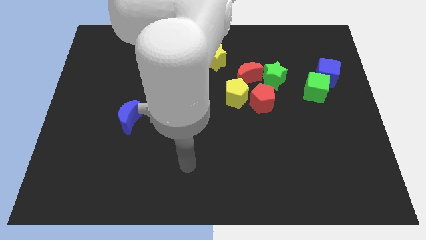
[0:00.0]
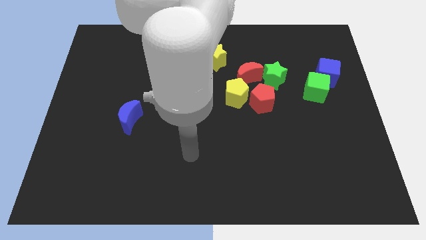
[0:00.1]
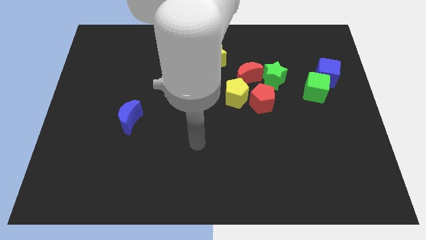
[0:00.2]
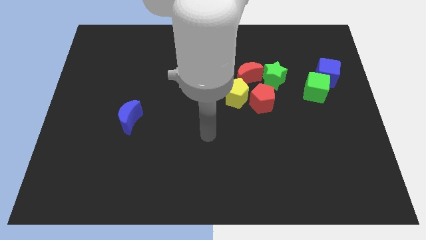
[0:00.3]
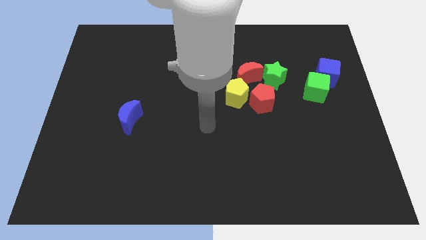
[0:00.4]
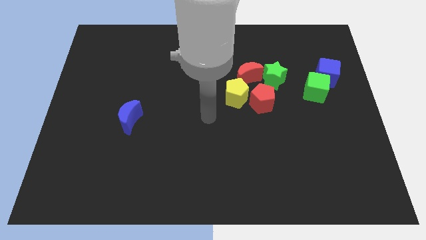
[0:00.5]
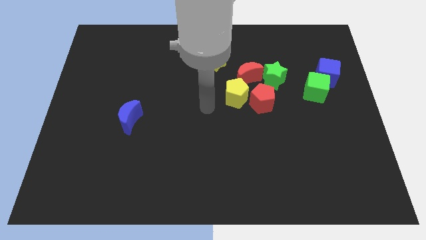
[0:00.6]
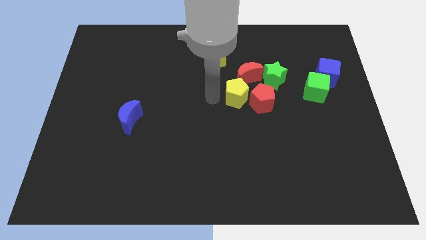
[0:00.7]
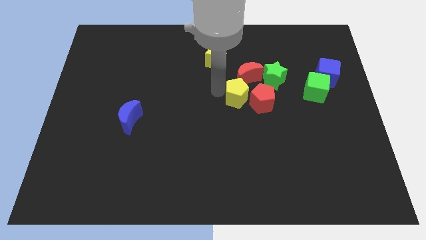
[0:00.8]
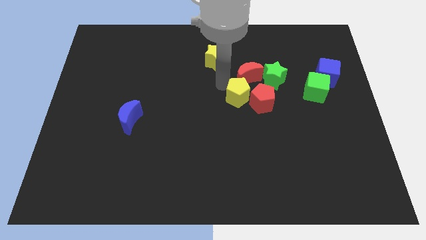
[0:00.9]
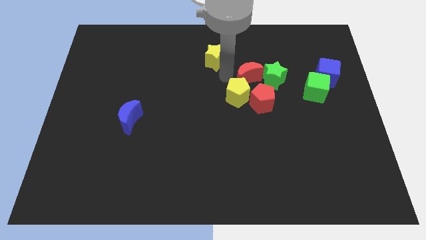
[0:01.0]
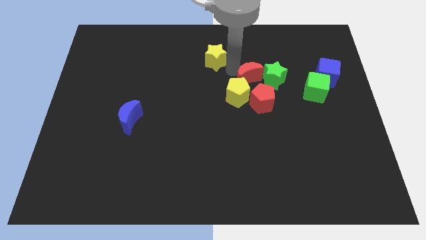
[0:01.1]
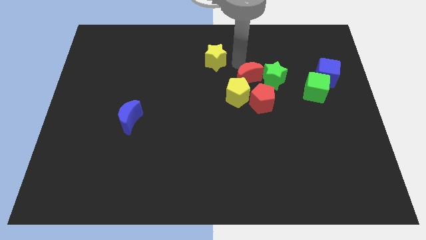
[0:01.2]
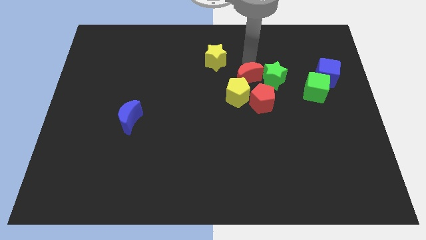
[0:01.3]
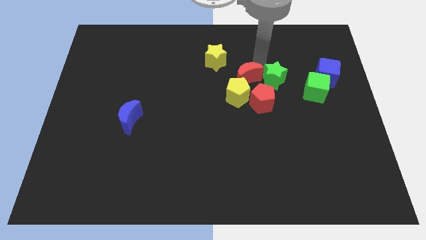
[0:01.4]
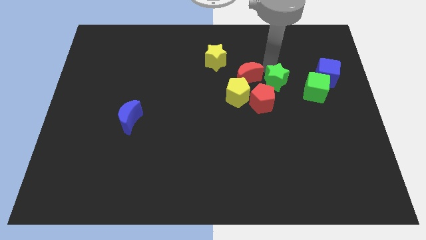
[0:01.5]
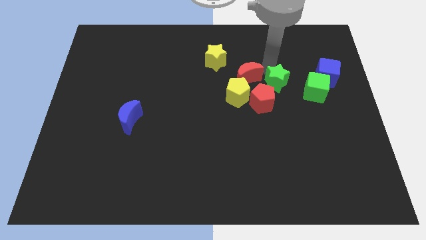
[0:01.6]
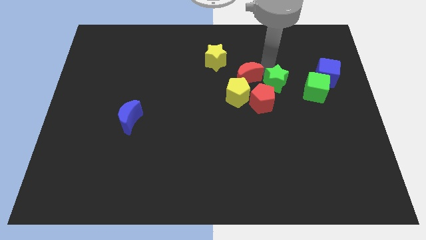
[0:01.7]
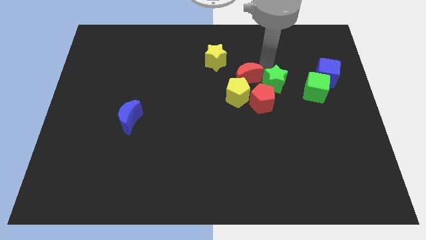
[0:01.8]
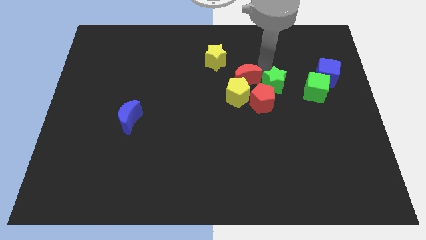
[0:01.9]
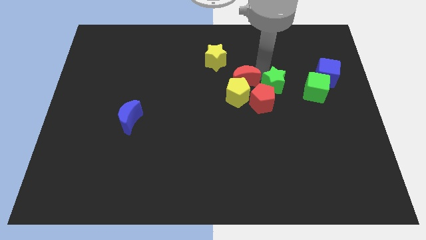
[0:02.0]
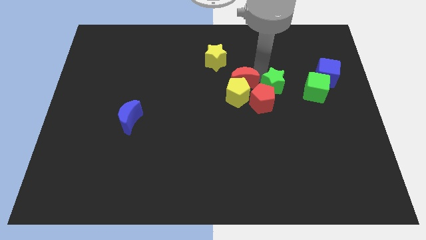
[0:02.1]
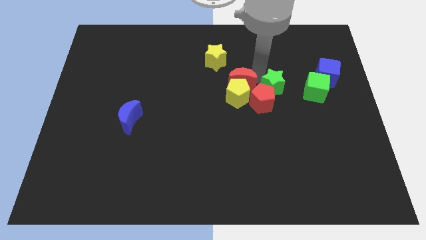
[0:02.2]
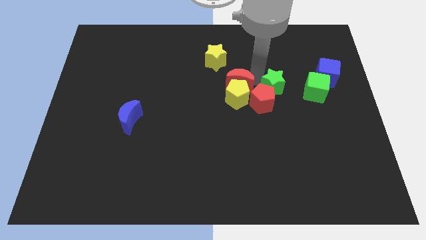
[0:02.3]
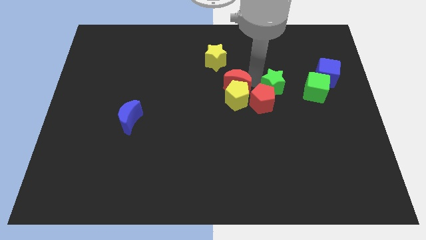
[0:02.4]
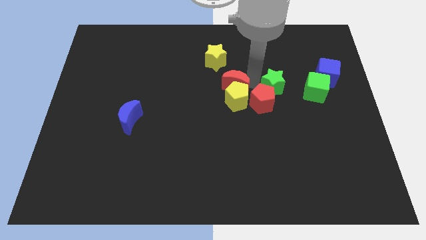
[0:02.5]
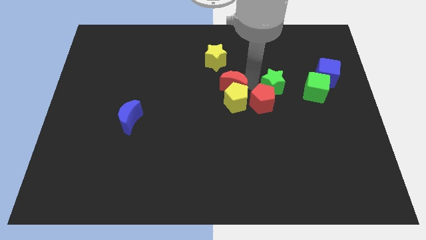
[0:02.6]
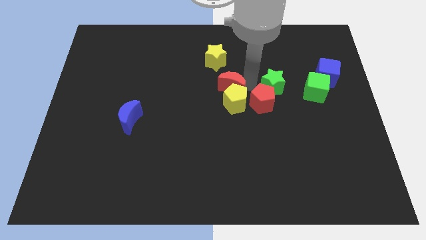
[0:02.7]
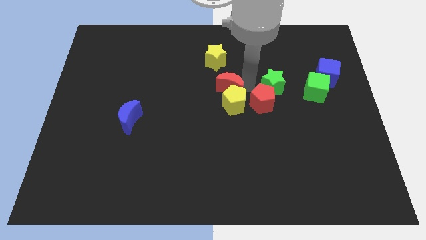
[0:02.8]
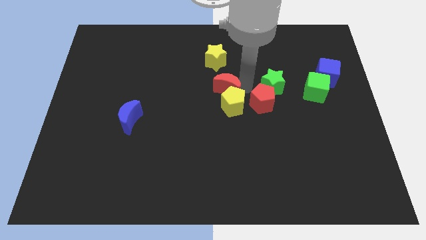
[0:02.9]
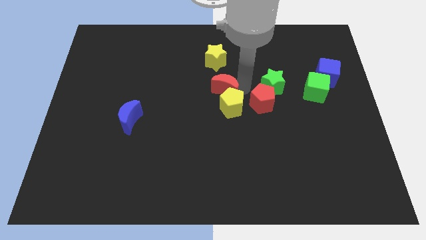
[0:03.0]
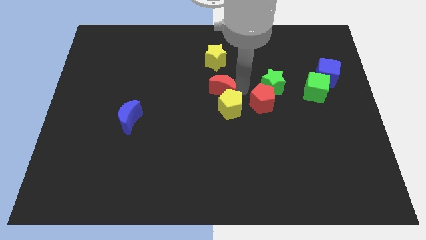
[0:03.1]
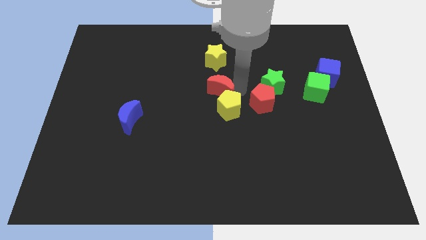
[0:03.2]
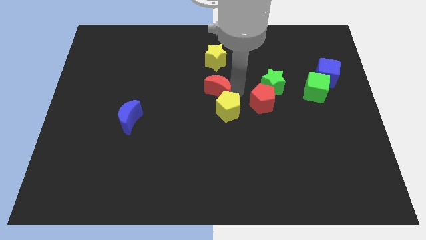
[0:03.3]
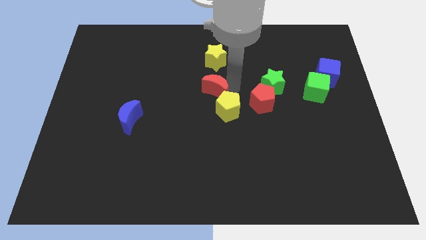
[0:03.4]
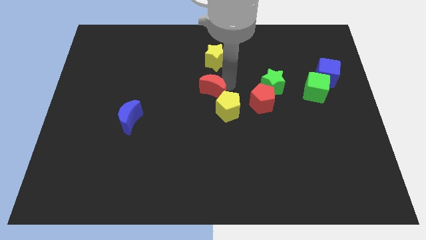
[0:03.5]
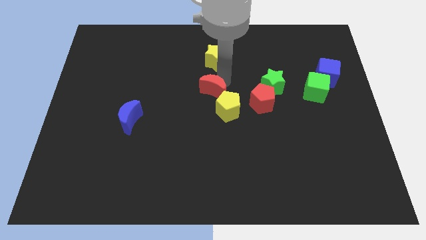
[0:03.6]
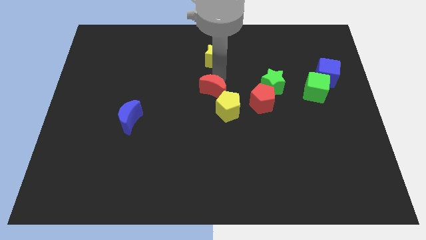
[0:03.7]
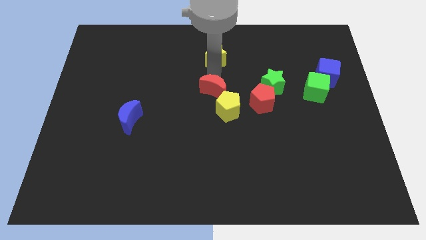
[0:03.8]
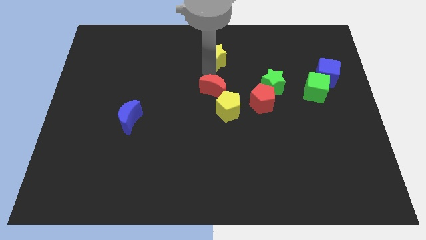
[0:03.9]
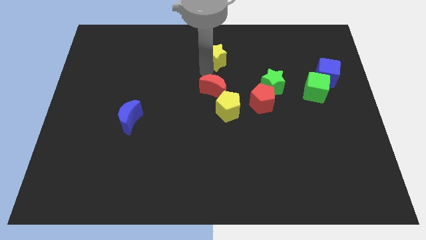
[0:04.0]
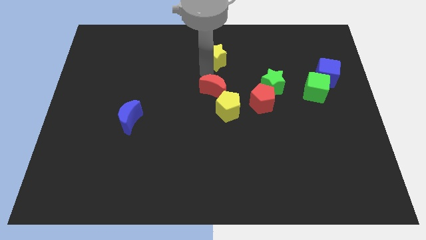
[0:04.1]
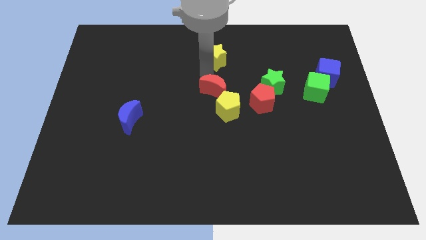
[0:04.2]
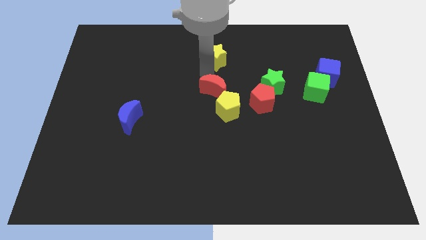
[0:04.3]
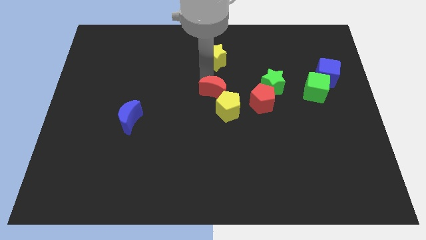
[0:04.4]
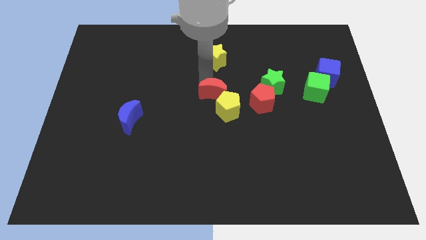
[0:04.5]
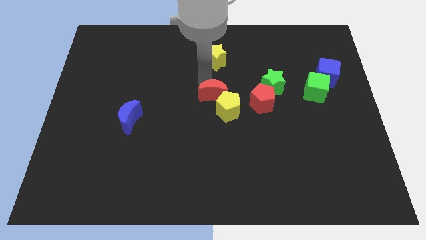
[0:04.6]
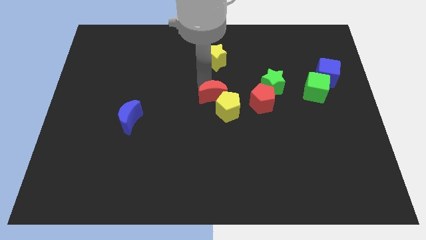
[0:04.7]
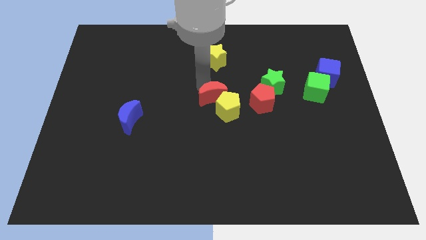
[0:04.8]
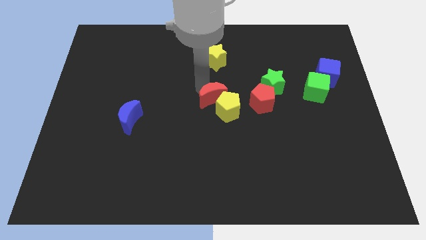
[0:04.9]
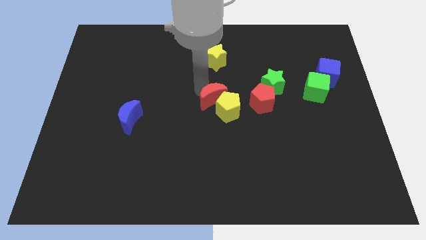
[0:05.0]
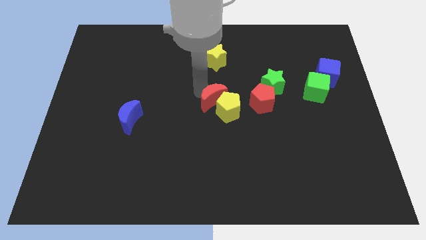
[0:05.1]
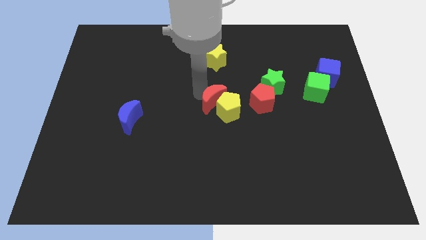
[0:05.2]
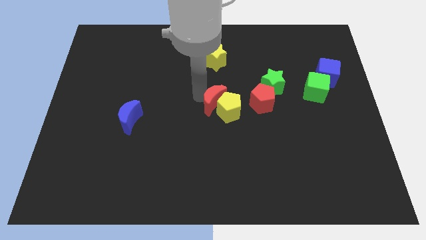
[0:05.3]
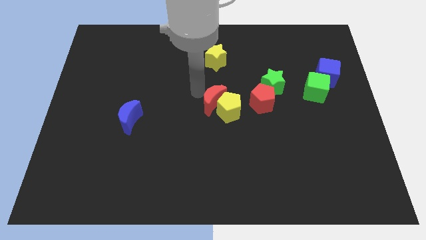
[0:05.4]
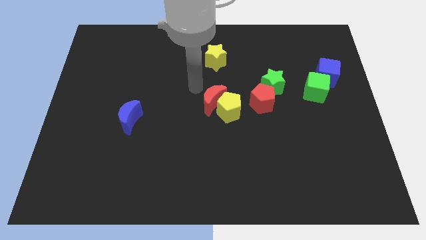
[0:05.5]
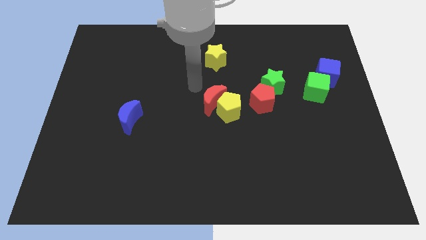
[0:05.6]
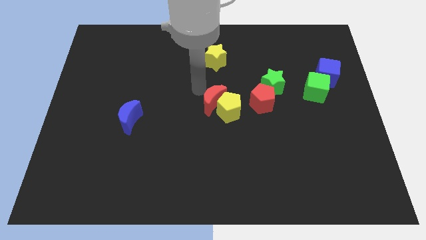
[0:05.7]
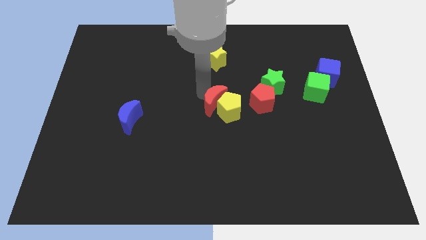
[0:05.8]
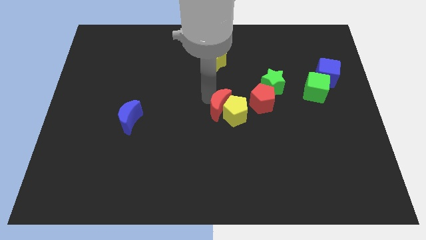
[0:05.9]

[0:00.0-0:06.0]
move the red moon downwards a little

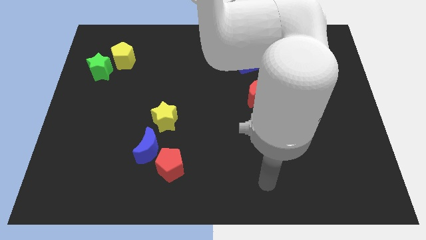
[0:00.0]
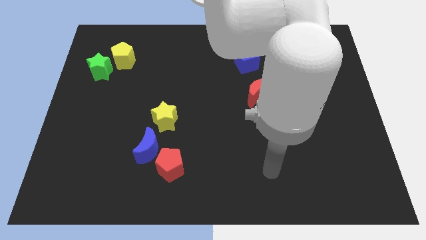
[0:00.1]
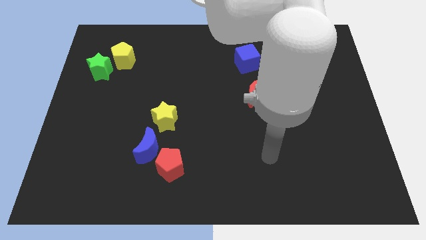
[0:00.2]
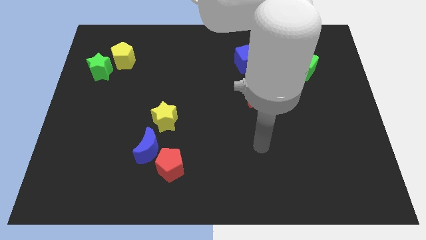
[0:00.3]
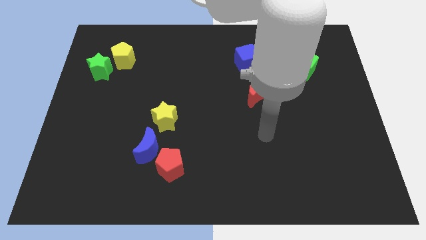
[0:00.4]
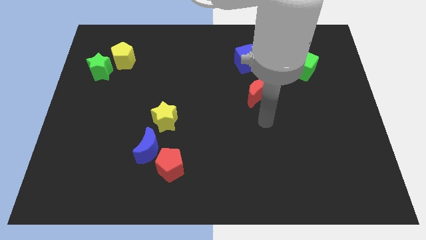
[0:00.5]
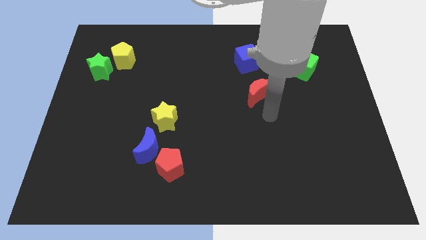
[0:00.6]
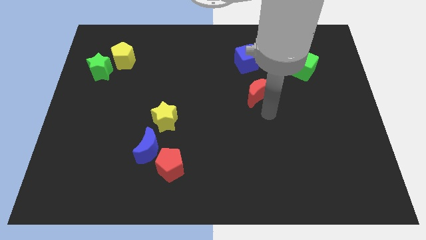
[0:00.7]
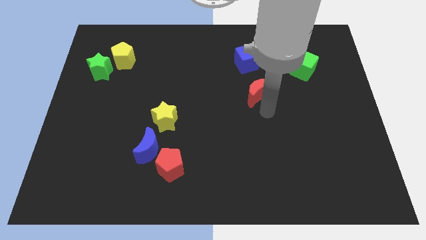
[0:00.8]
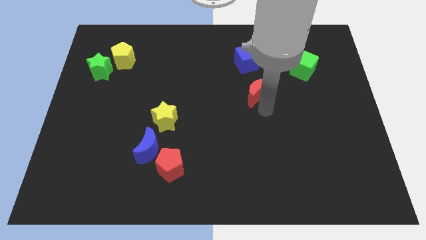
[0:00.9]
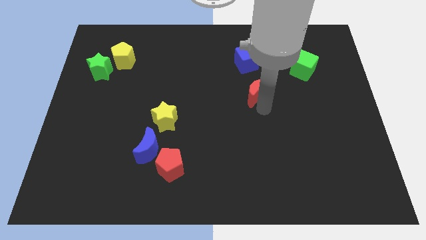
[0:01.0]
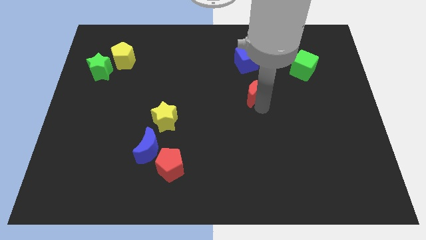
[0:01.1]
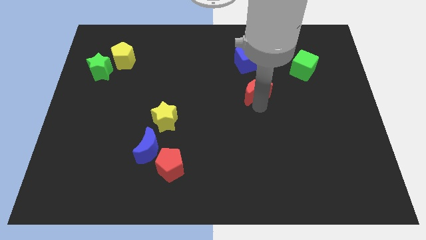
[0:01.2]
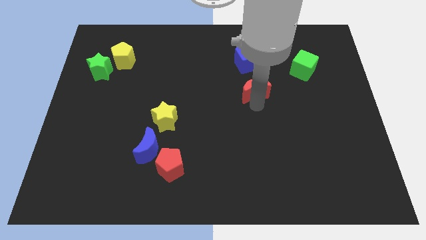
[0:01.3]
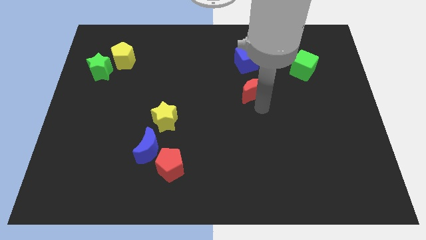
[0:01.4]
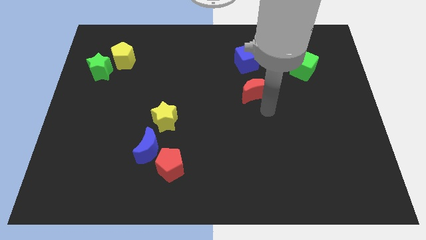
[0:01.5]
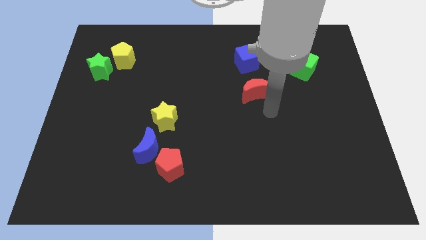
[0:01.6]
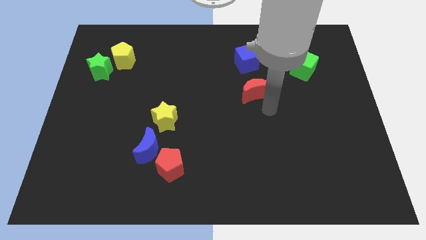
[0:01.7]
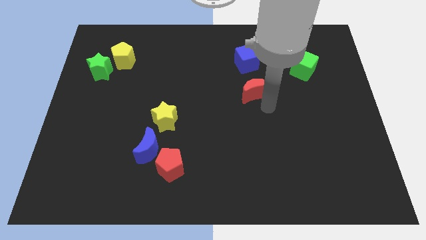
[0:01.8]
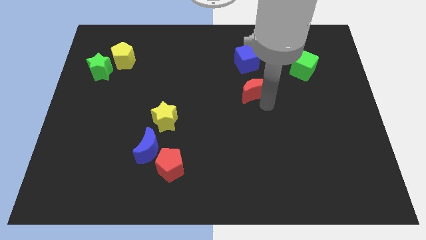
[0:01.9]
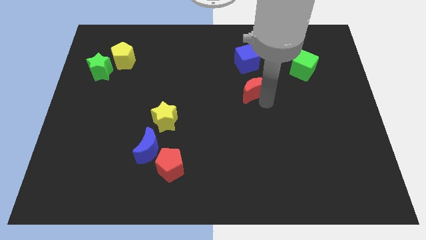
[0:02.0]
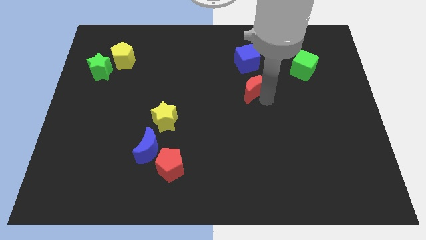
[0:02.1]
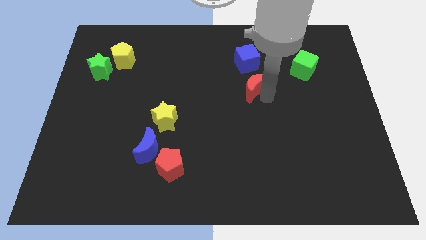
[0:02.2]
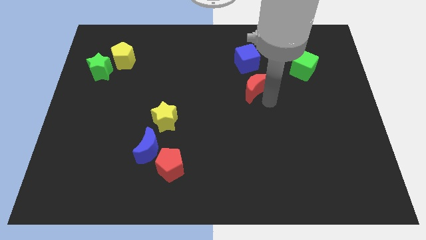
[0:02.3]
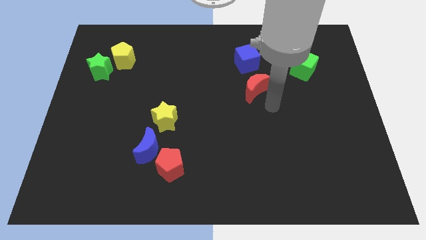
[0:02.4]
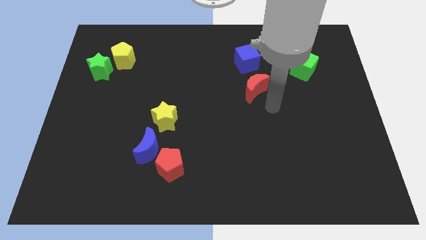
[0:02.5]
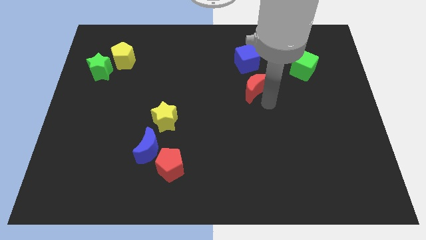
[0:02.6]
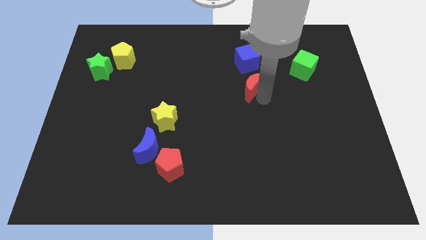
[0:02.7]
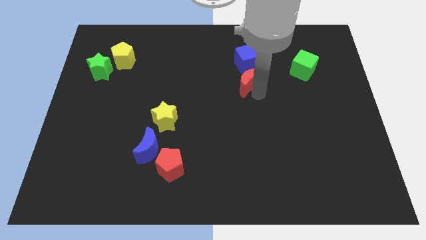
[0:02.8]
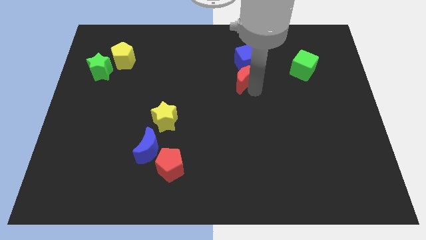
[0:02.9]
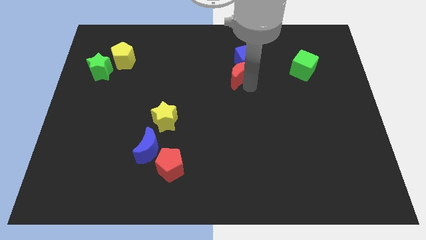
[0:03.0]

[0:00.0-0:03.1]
slightly push the red moon upwards and then to the left
